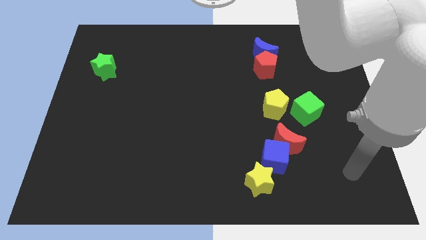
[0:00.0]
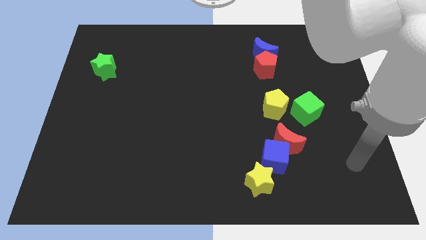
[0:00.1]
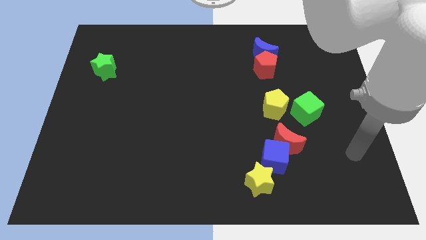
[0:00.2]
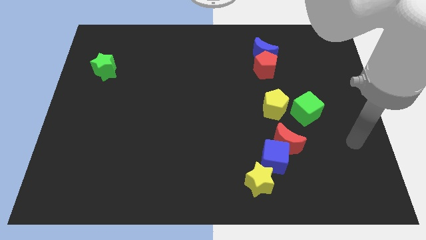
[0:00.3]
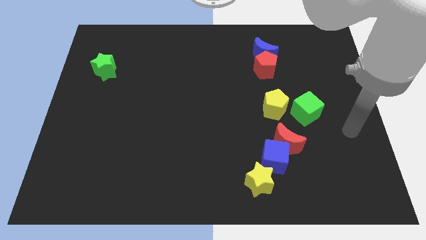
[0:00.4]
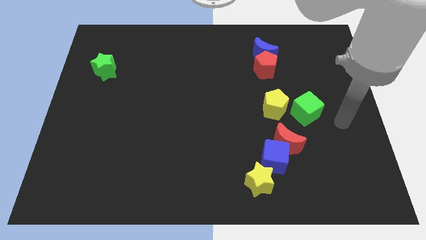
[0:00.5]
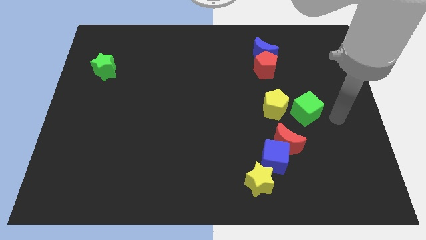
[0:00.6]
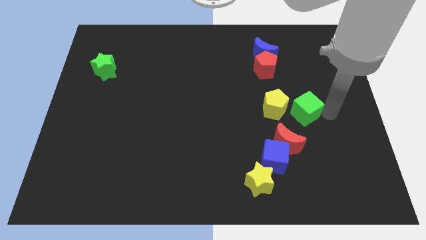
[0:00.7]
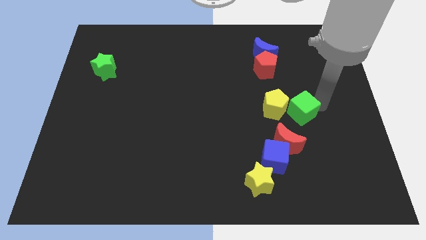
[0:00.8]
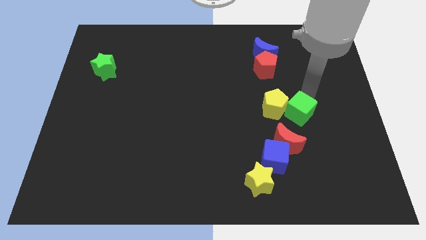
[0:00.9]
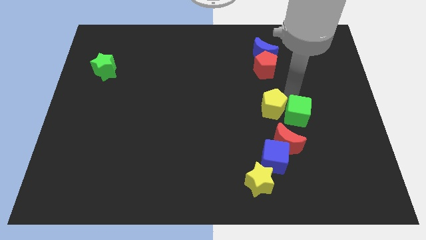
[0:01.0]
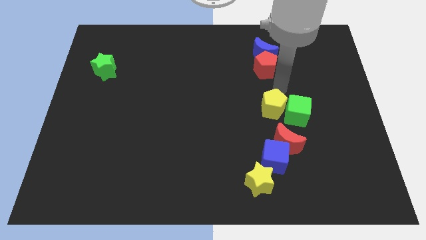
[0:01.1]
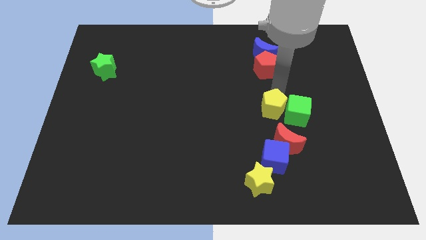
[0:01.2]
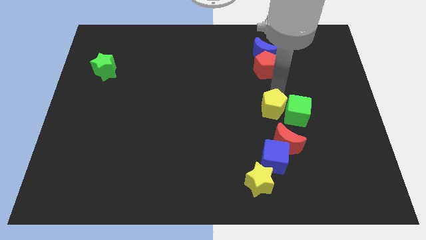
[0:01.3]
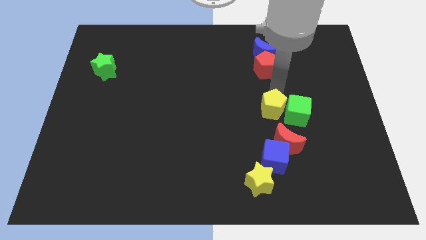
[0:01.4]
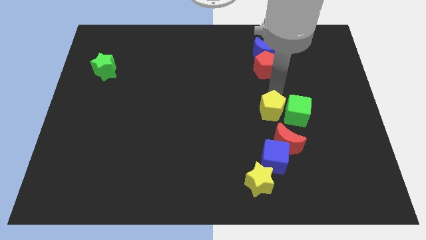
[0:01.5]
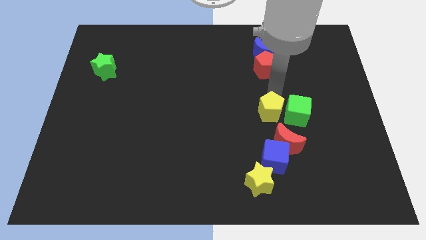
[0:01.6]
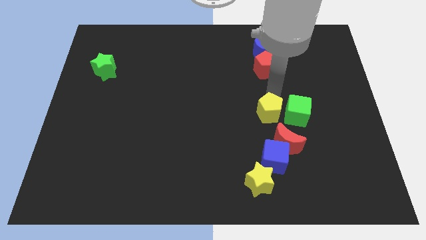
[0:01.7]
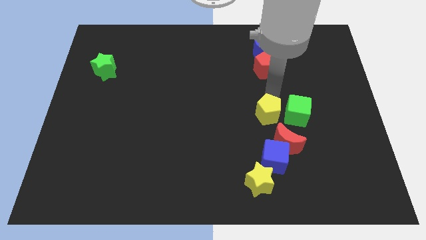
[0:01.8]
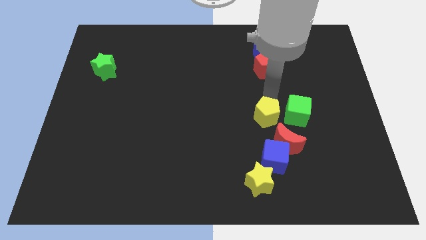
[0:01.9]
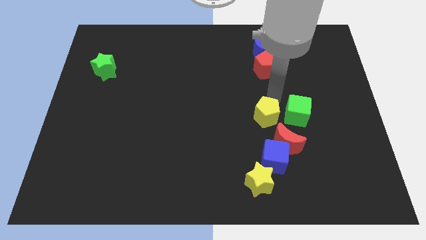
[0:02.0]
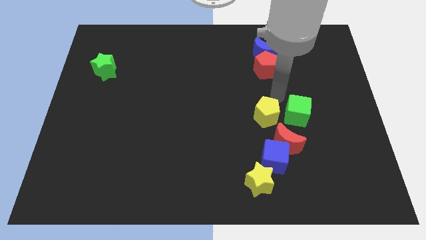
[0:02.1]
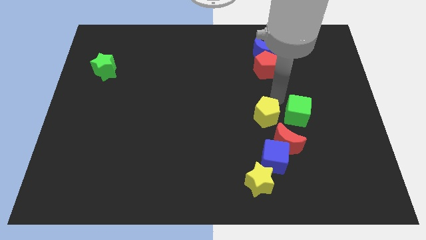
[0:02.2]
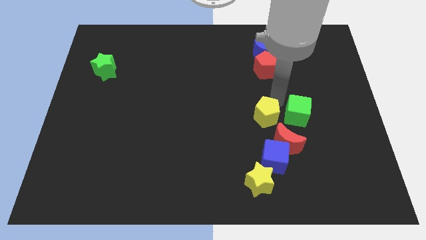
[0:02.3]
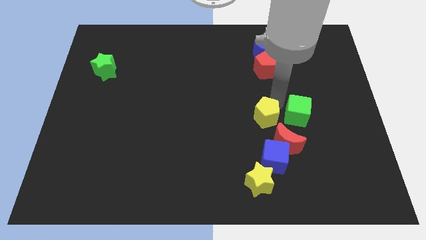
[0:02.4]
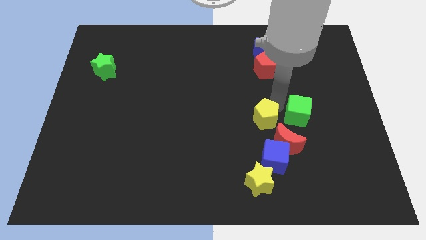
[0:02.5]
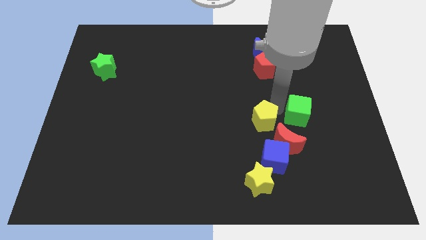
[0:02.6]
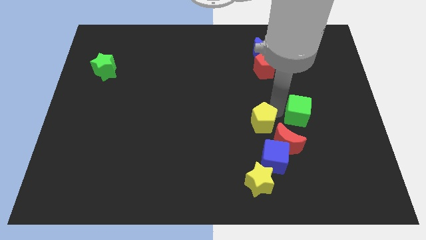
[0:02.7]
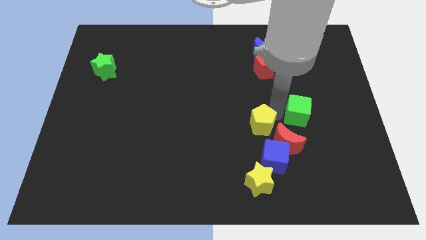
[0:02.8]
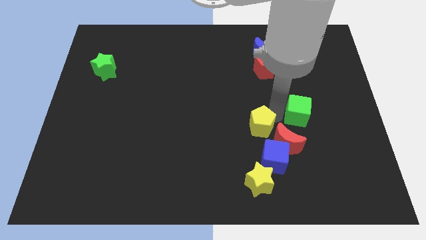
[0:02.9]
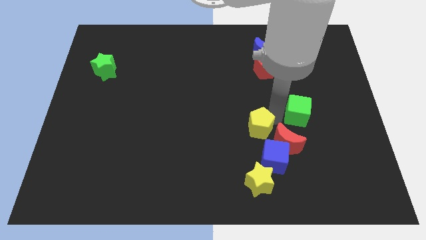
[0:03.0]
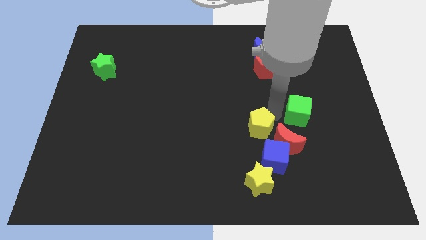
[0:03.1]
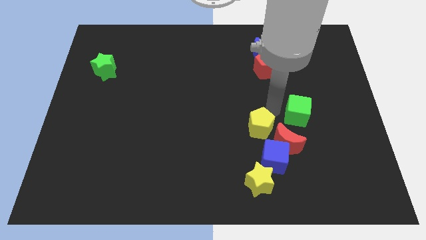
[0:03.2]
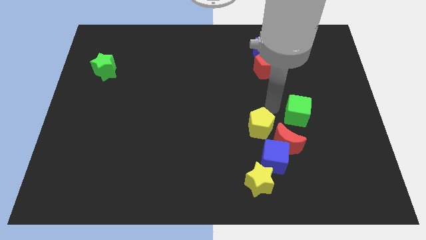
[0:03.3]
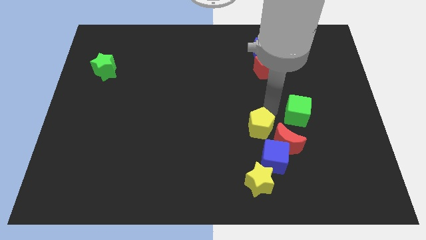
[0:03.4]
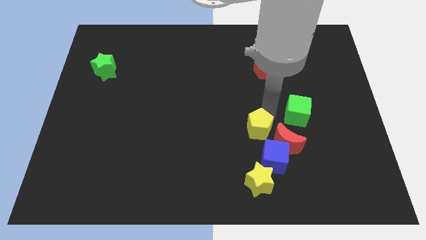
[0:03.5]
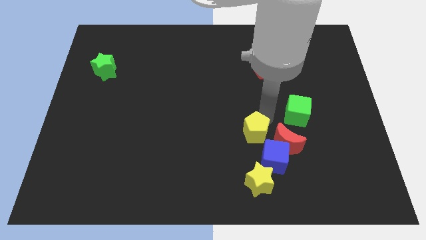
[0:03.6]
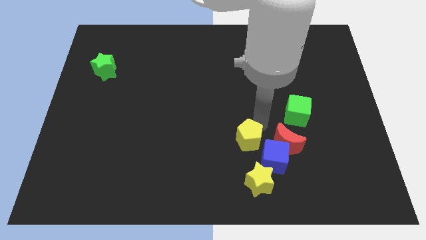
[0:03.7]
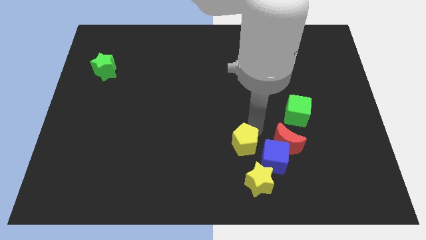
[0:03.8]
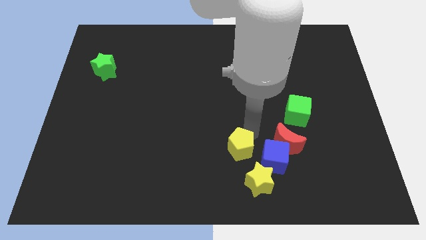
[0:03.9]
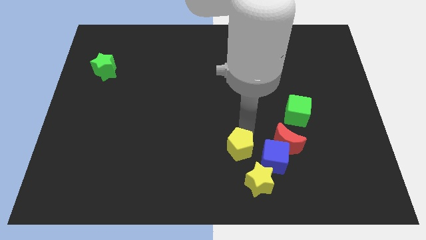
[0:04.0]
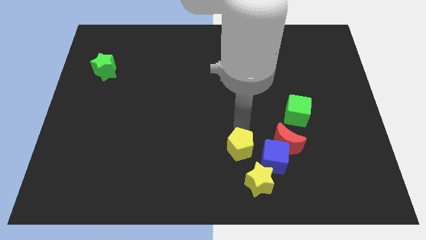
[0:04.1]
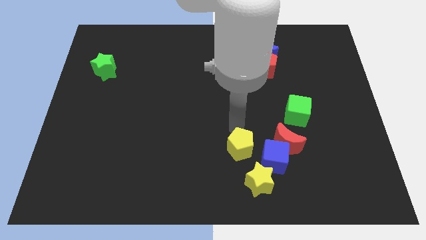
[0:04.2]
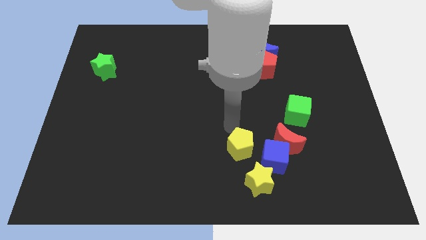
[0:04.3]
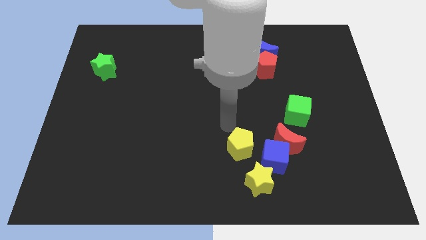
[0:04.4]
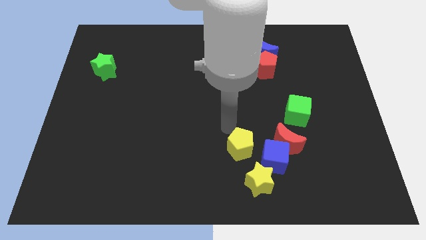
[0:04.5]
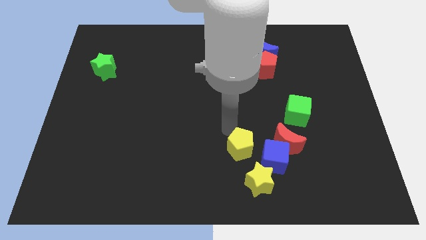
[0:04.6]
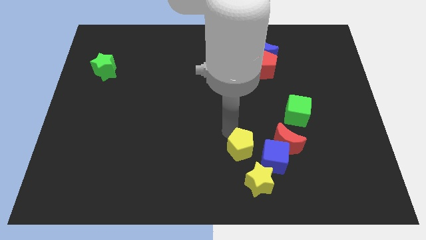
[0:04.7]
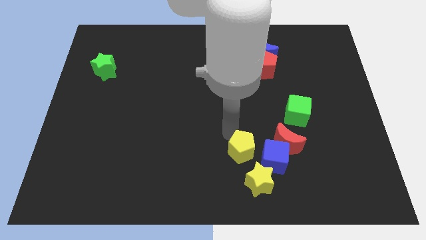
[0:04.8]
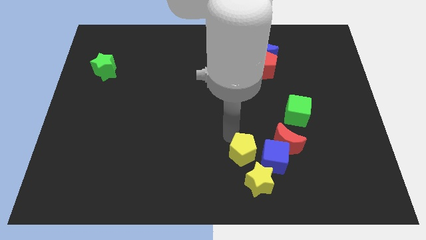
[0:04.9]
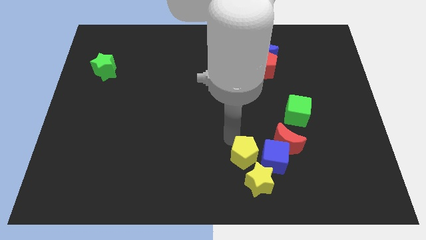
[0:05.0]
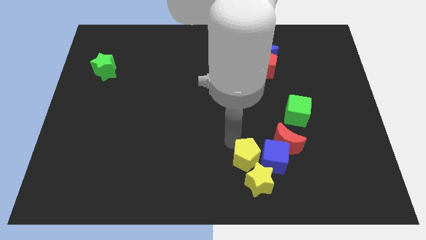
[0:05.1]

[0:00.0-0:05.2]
slide the yellow pentagon next to the yellow star

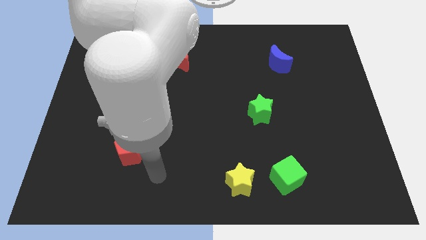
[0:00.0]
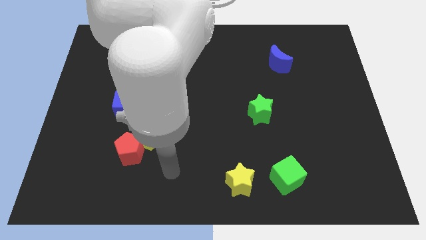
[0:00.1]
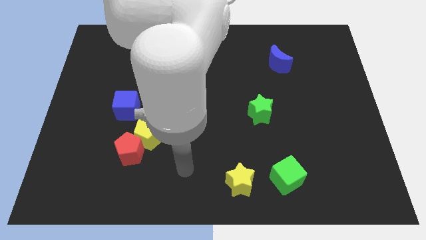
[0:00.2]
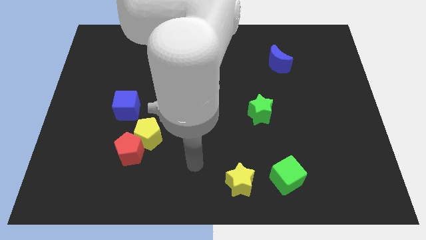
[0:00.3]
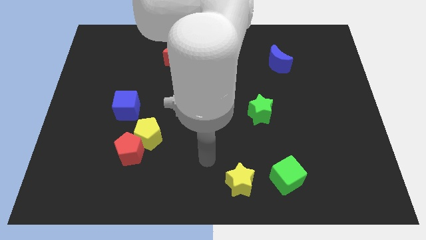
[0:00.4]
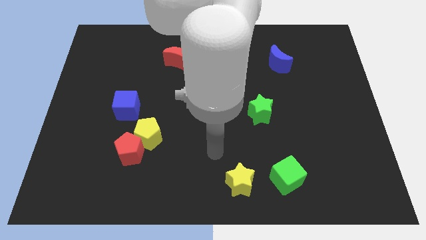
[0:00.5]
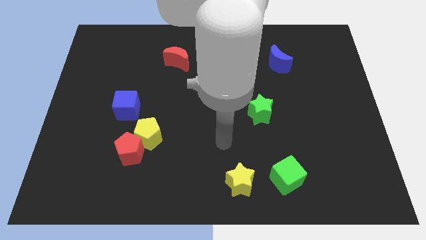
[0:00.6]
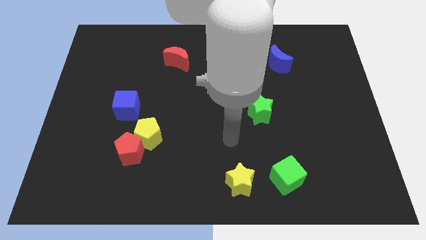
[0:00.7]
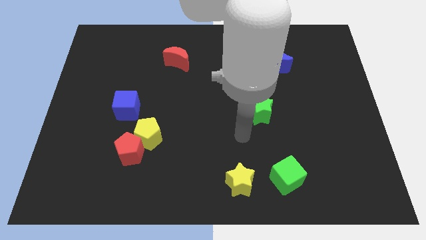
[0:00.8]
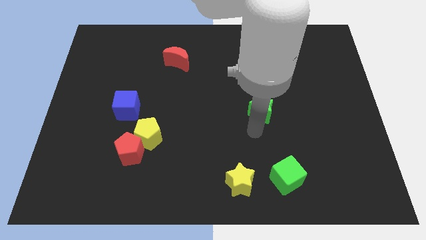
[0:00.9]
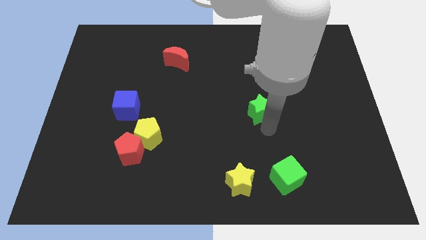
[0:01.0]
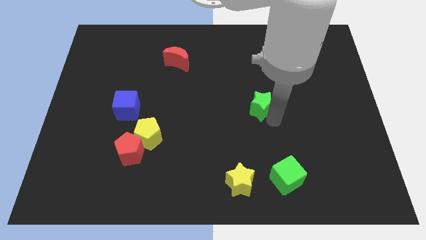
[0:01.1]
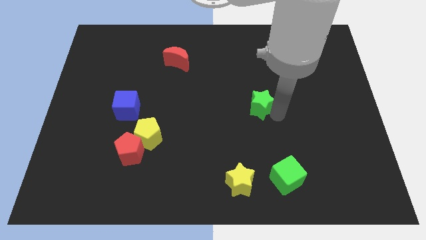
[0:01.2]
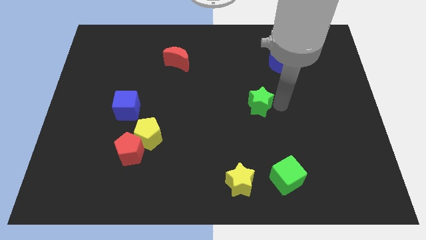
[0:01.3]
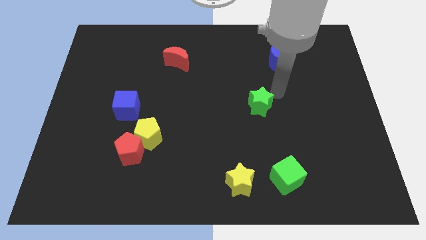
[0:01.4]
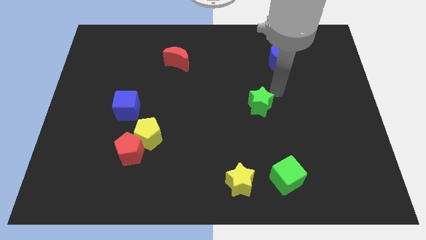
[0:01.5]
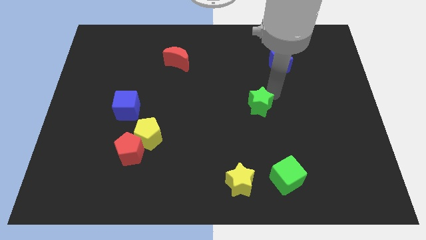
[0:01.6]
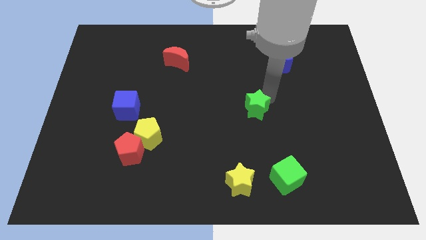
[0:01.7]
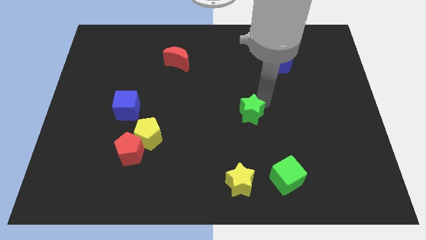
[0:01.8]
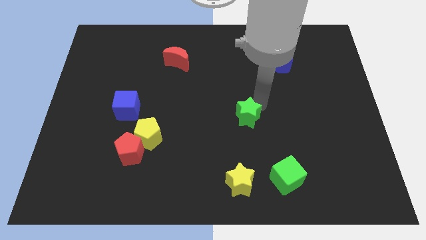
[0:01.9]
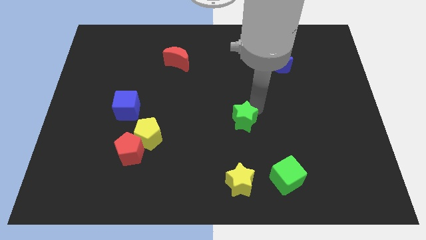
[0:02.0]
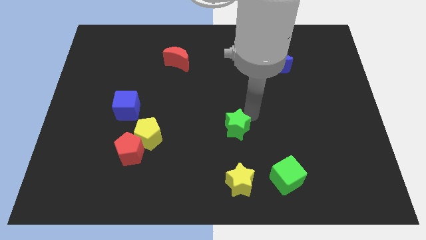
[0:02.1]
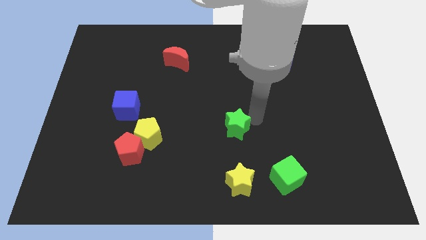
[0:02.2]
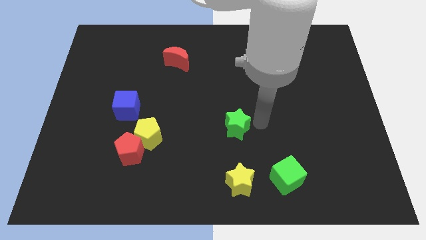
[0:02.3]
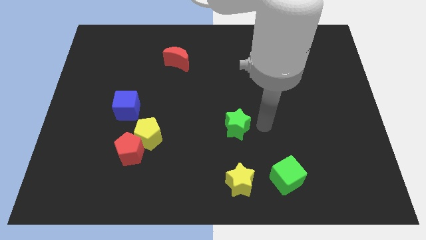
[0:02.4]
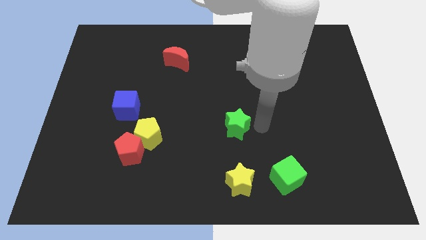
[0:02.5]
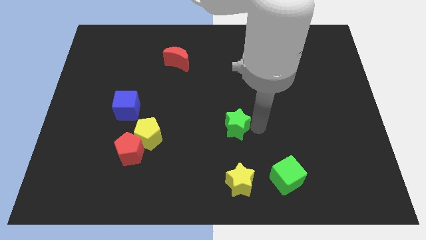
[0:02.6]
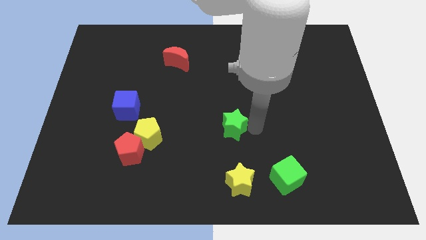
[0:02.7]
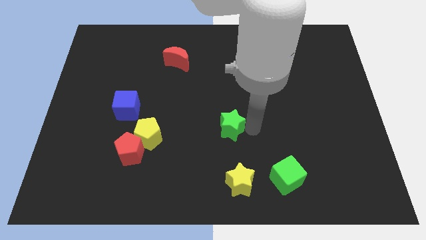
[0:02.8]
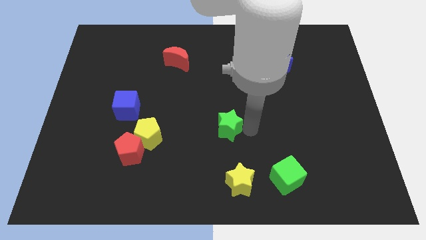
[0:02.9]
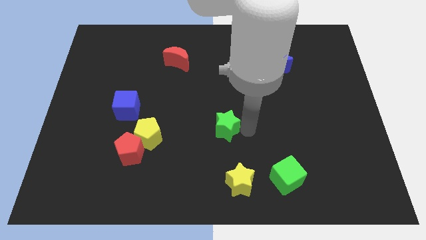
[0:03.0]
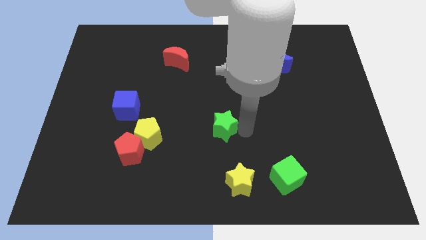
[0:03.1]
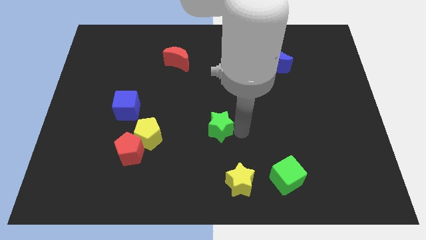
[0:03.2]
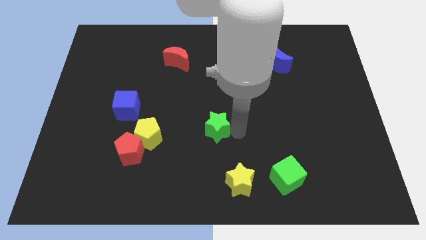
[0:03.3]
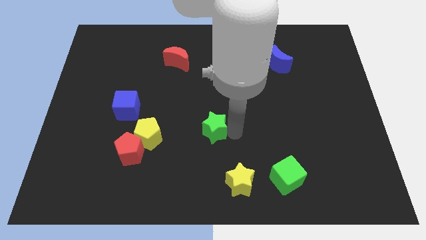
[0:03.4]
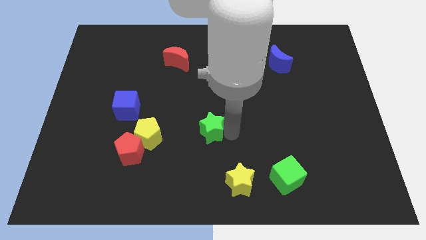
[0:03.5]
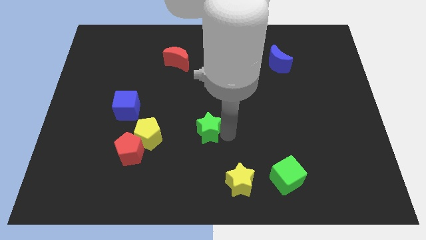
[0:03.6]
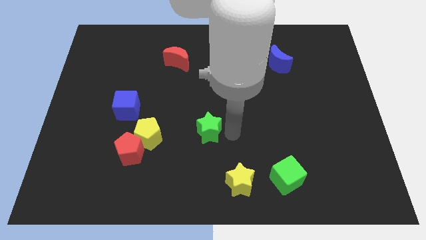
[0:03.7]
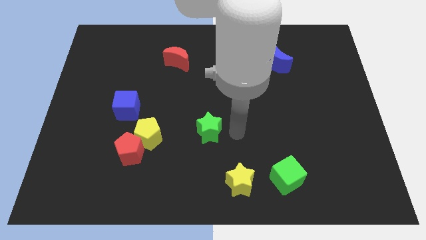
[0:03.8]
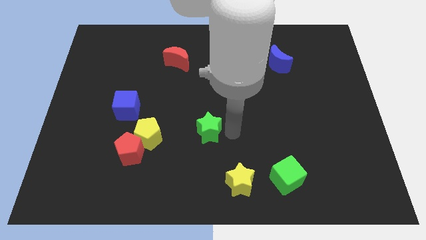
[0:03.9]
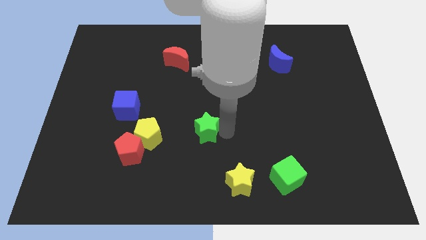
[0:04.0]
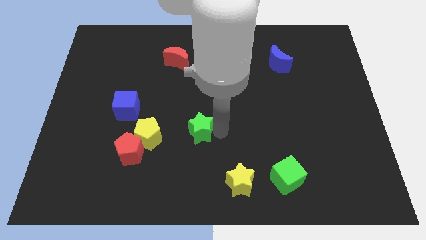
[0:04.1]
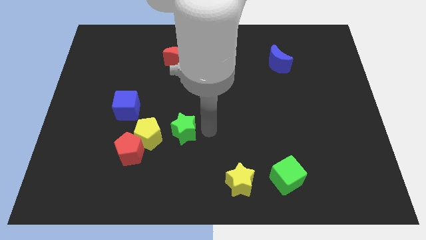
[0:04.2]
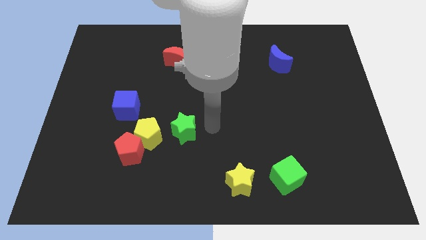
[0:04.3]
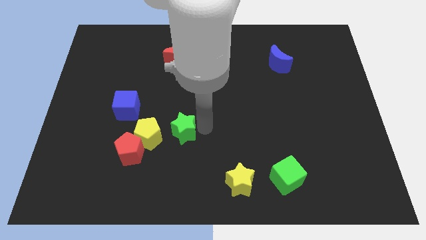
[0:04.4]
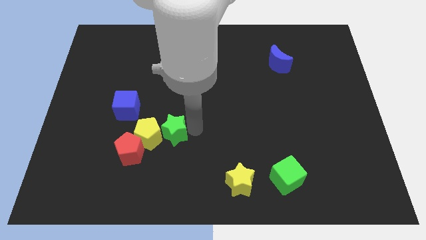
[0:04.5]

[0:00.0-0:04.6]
put the green star to the yellow pentagon
